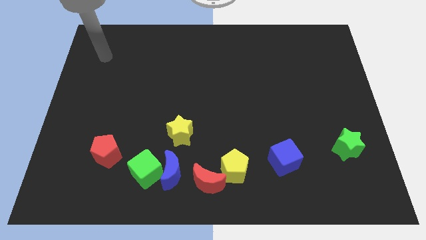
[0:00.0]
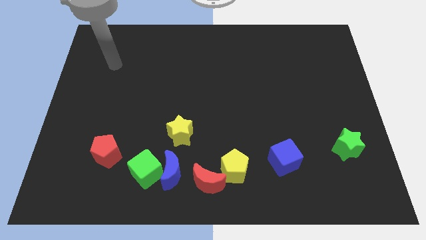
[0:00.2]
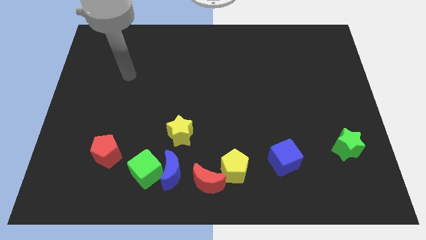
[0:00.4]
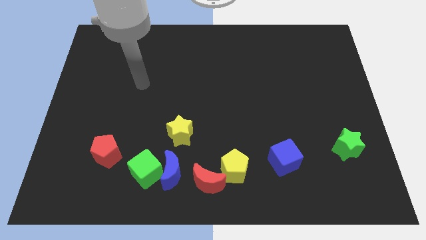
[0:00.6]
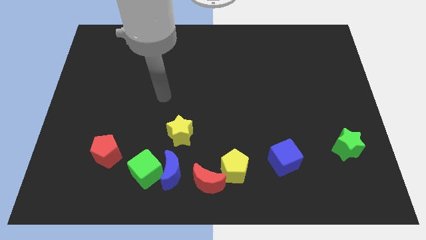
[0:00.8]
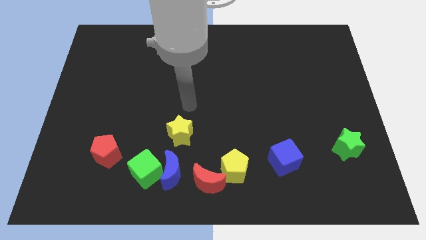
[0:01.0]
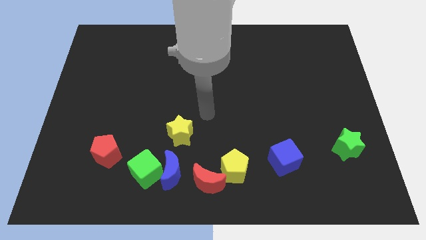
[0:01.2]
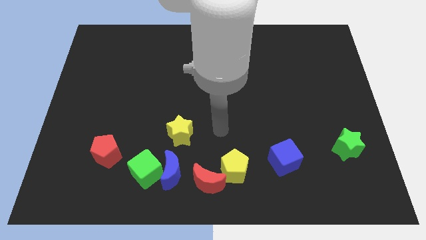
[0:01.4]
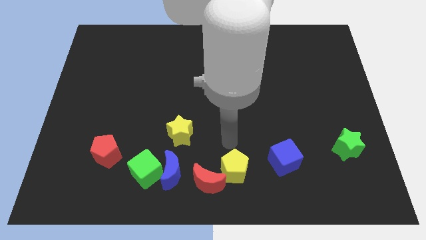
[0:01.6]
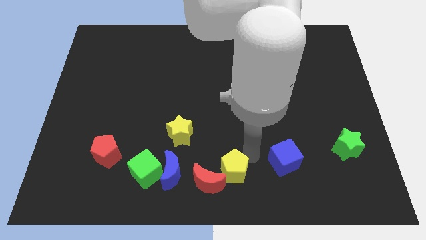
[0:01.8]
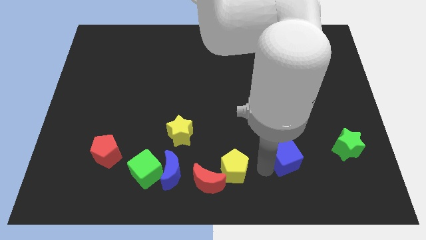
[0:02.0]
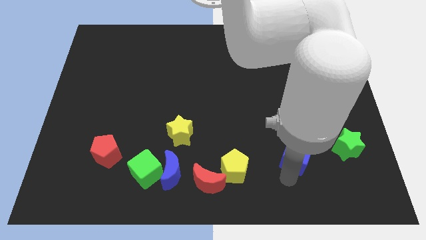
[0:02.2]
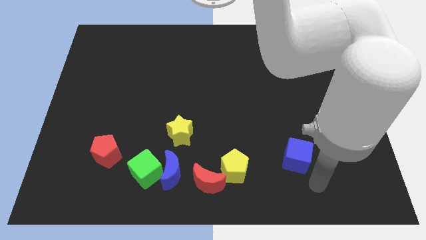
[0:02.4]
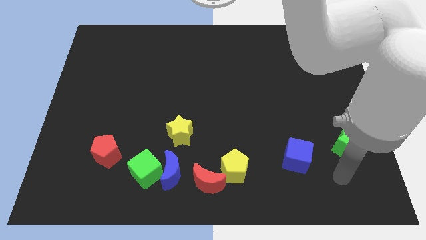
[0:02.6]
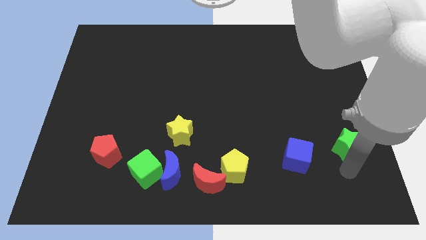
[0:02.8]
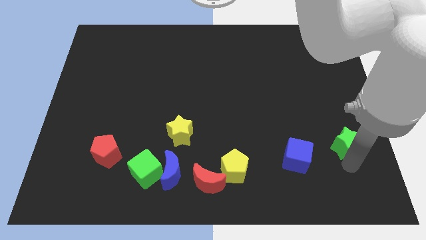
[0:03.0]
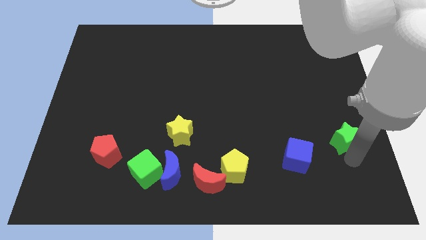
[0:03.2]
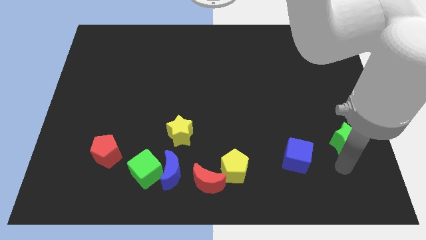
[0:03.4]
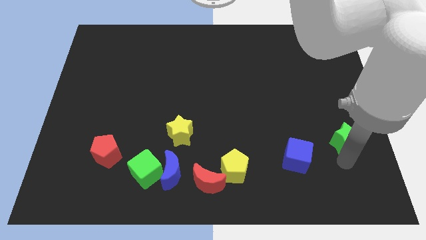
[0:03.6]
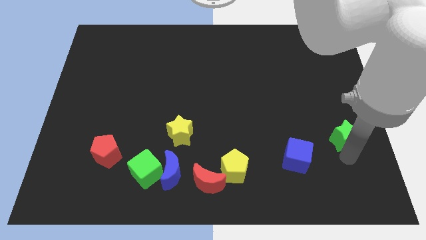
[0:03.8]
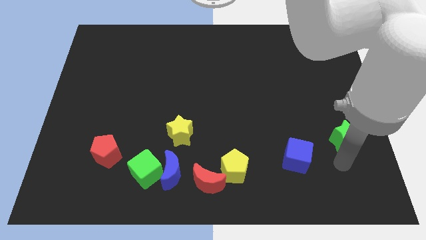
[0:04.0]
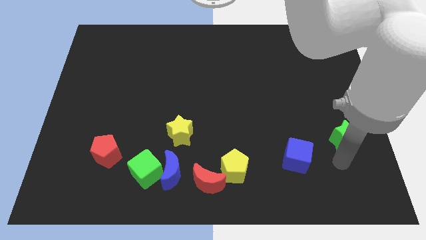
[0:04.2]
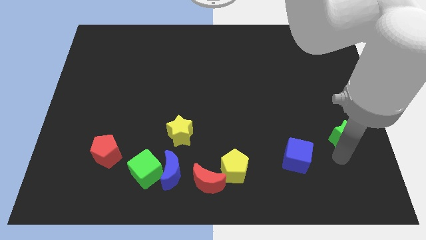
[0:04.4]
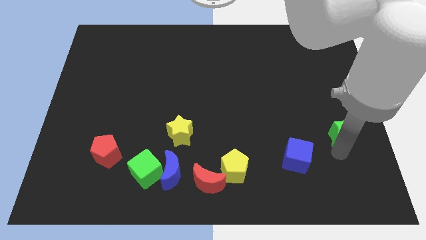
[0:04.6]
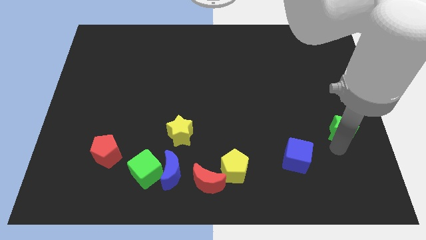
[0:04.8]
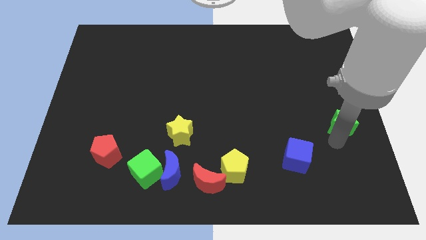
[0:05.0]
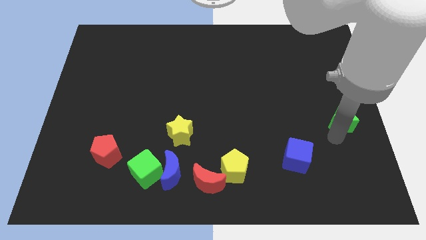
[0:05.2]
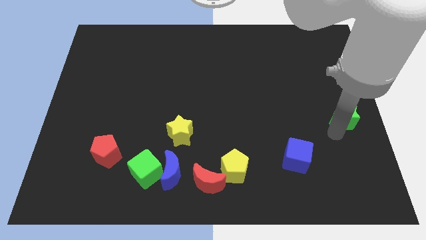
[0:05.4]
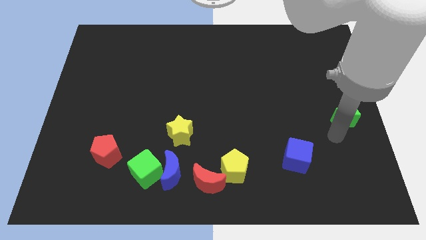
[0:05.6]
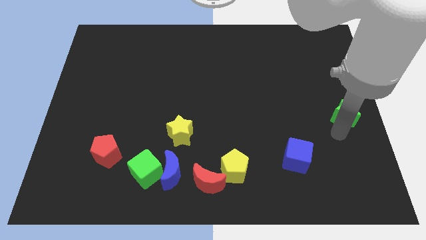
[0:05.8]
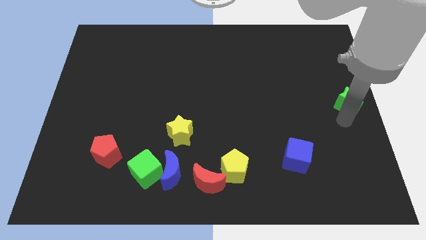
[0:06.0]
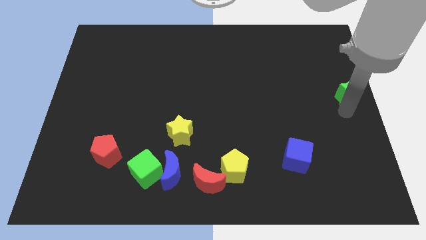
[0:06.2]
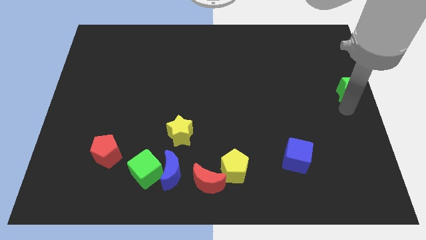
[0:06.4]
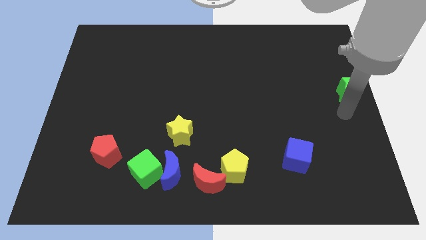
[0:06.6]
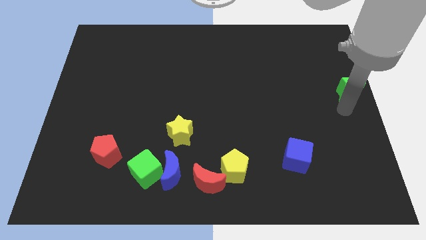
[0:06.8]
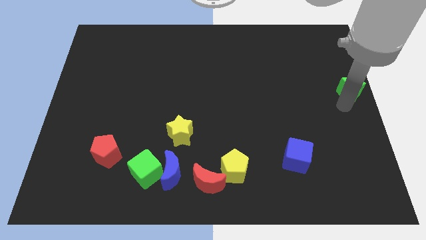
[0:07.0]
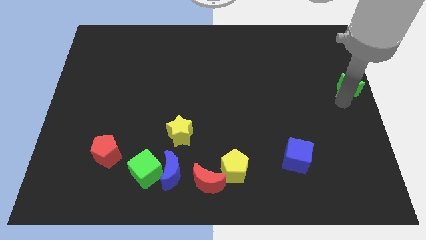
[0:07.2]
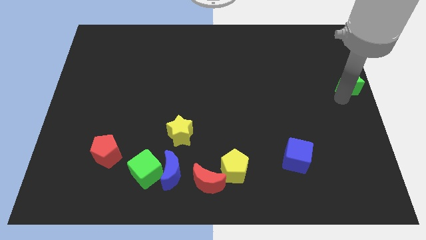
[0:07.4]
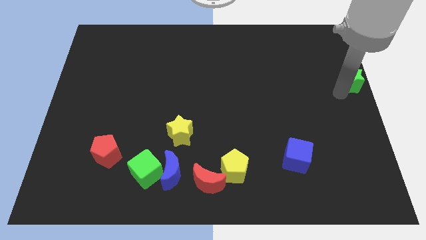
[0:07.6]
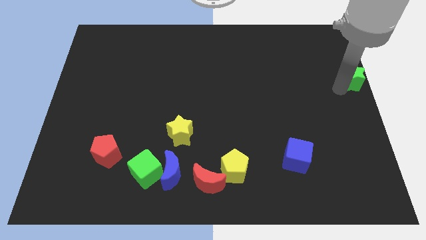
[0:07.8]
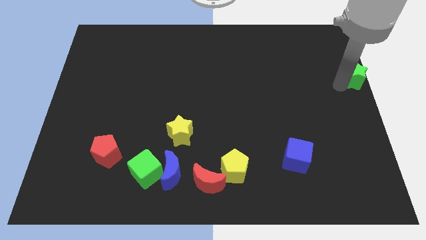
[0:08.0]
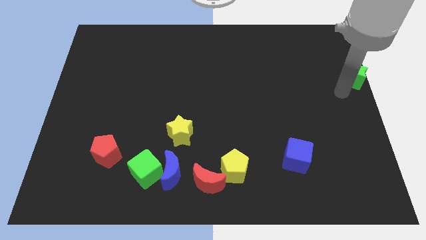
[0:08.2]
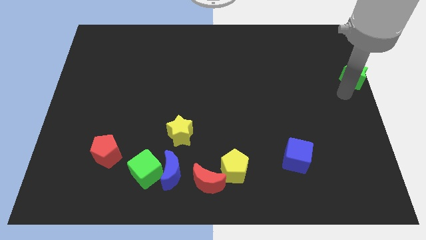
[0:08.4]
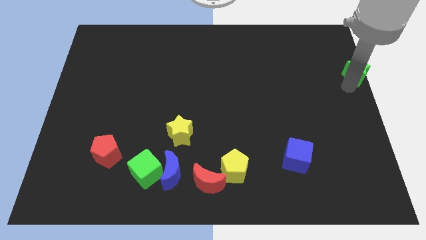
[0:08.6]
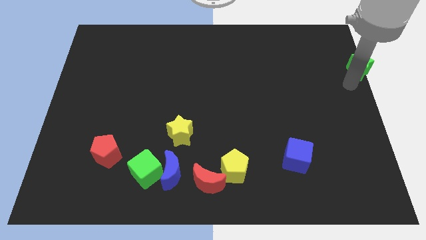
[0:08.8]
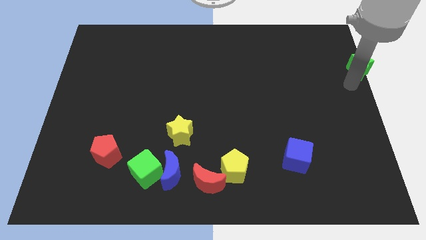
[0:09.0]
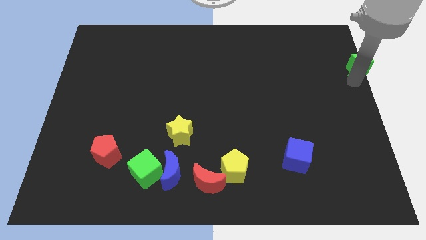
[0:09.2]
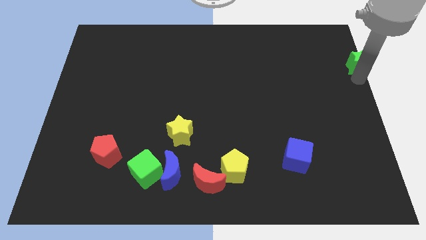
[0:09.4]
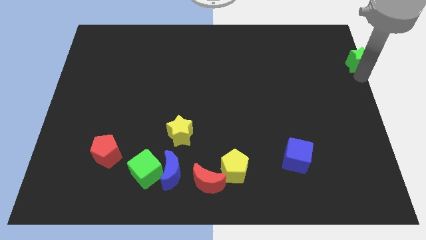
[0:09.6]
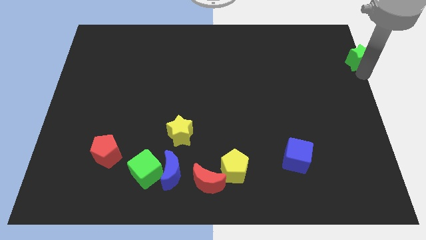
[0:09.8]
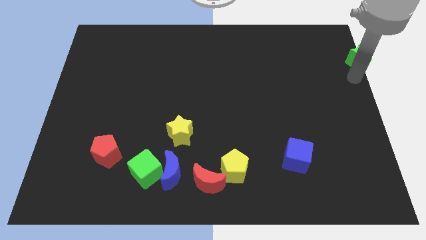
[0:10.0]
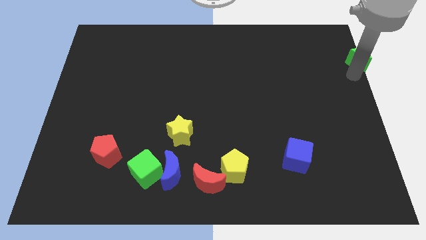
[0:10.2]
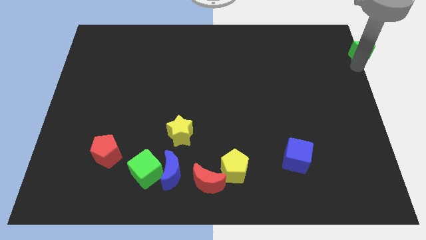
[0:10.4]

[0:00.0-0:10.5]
put the green star to the top right

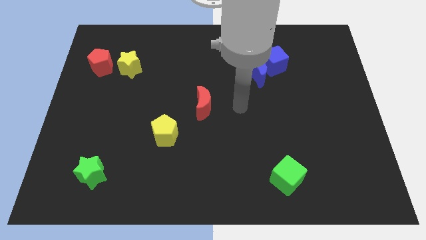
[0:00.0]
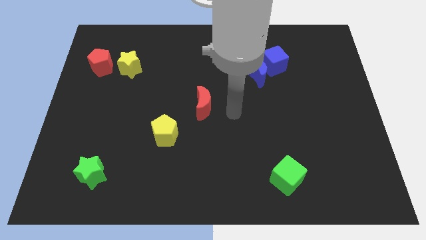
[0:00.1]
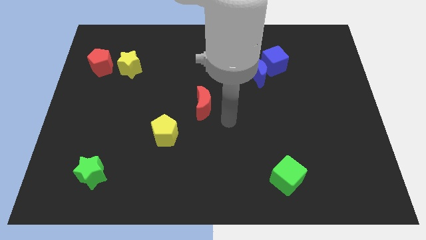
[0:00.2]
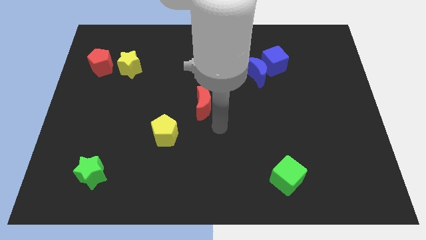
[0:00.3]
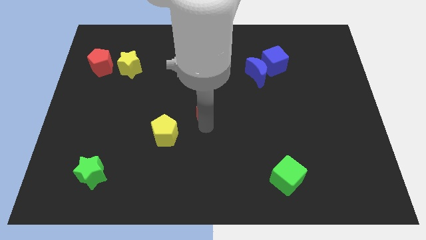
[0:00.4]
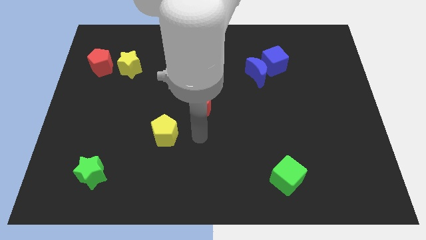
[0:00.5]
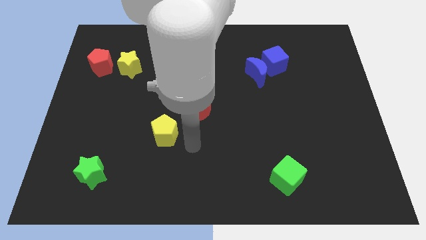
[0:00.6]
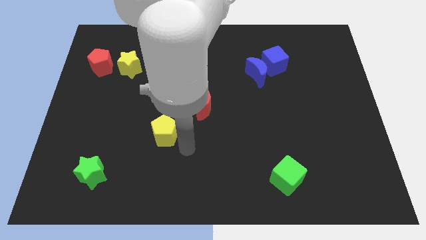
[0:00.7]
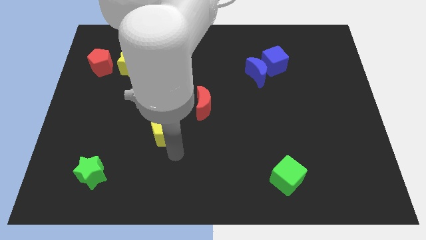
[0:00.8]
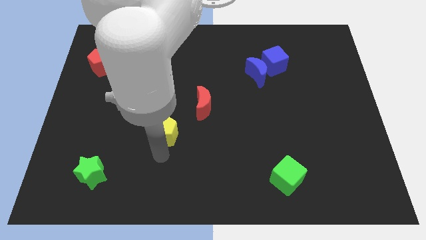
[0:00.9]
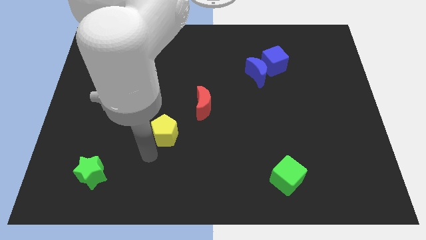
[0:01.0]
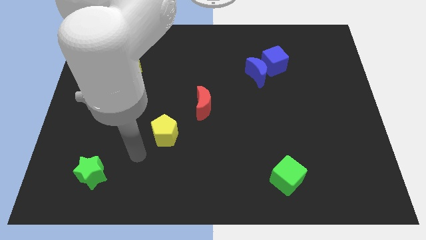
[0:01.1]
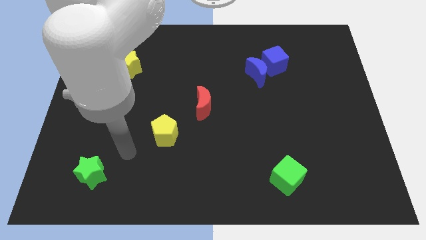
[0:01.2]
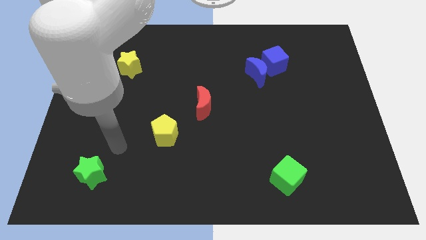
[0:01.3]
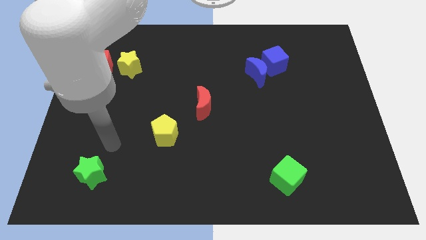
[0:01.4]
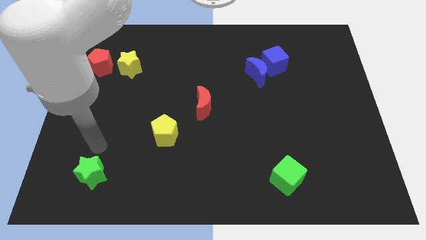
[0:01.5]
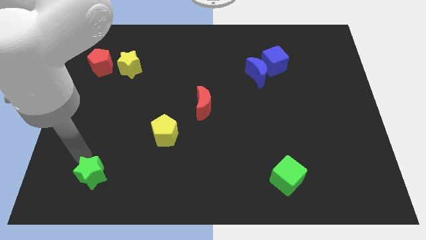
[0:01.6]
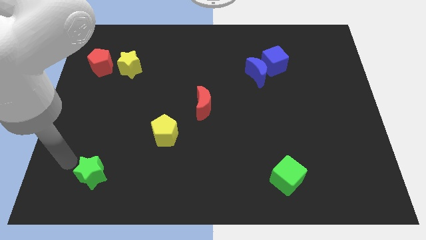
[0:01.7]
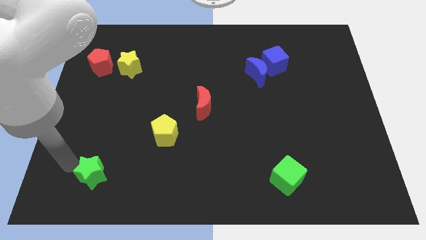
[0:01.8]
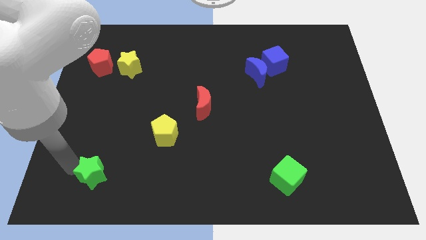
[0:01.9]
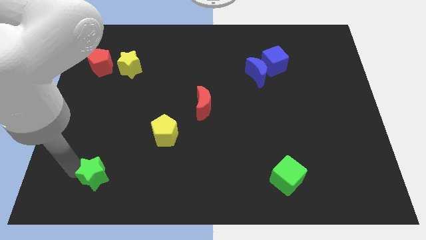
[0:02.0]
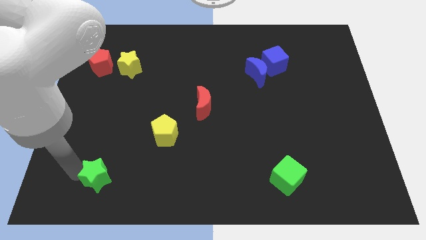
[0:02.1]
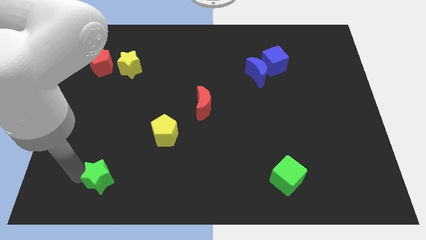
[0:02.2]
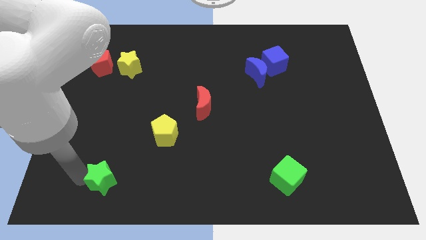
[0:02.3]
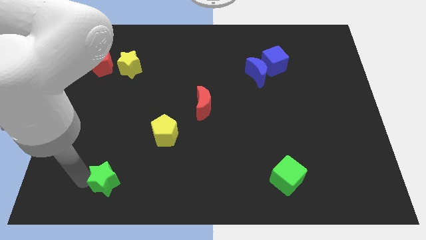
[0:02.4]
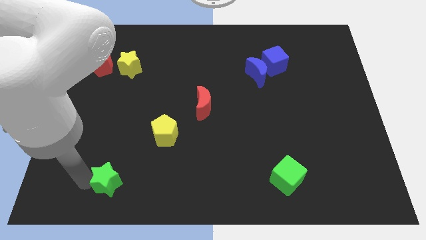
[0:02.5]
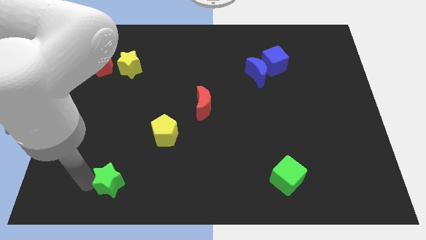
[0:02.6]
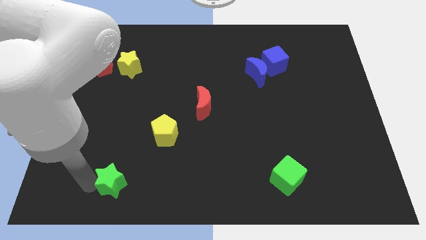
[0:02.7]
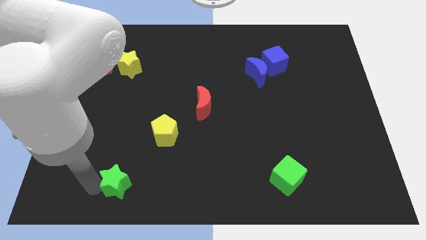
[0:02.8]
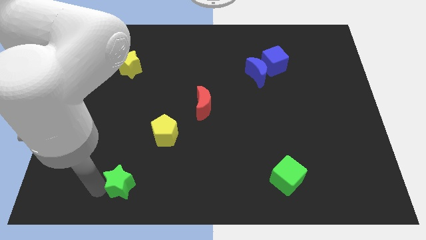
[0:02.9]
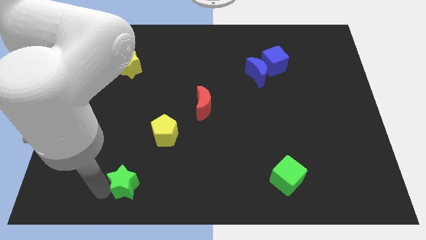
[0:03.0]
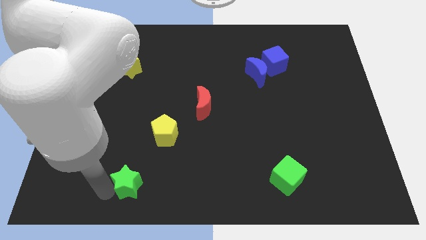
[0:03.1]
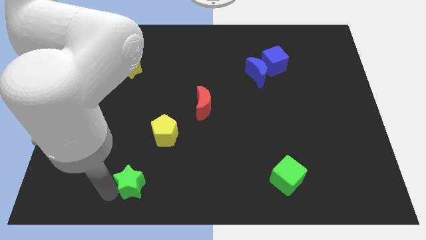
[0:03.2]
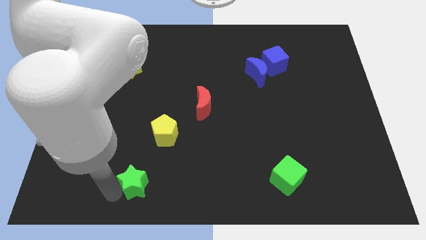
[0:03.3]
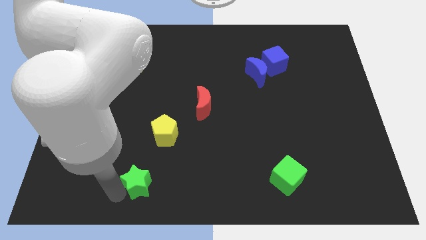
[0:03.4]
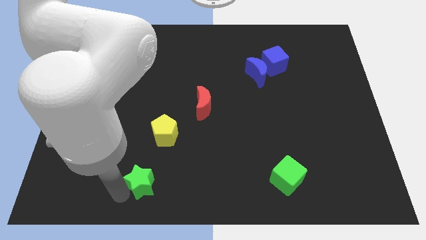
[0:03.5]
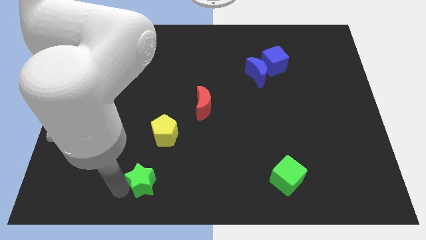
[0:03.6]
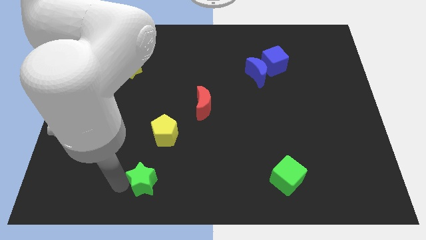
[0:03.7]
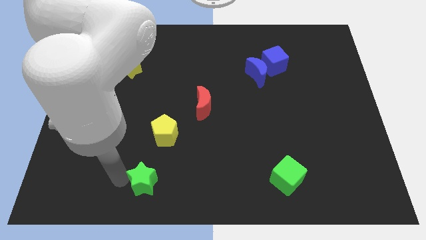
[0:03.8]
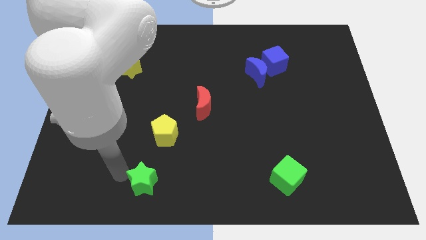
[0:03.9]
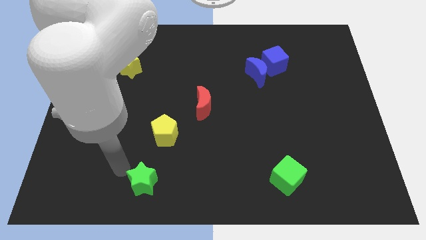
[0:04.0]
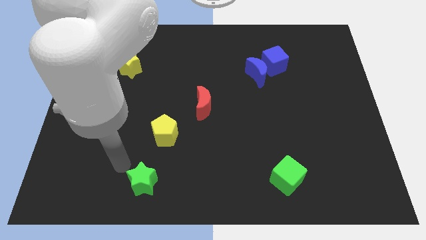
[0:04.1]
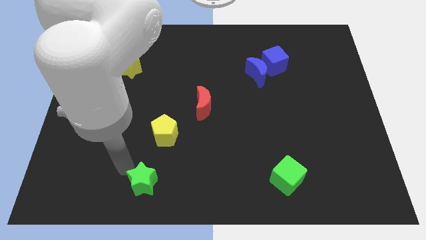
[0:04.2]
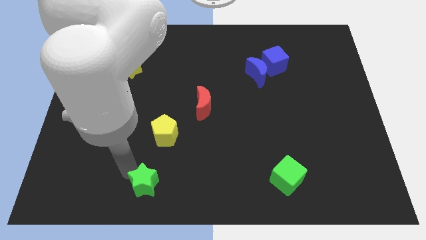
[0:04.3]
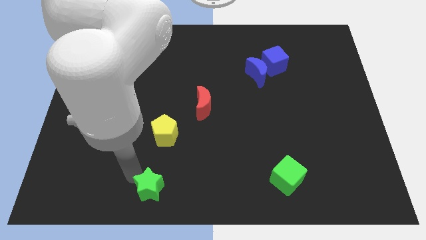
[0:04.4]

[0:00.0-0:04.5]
put the green star to the bottom
